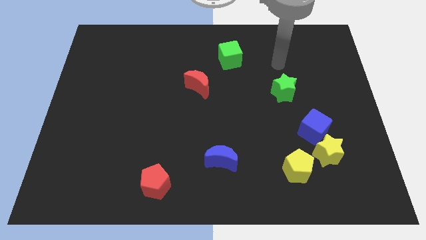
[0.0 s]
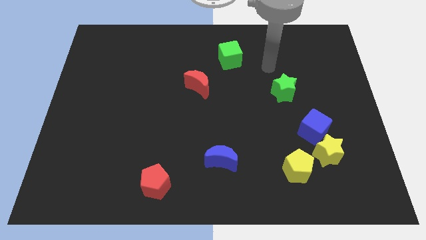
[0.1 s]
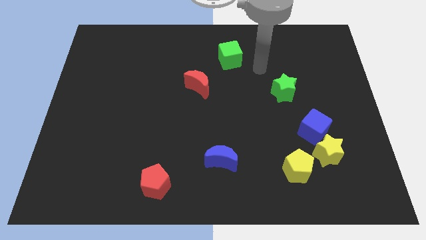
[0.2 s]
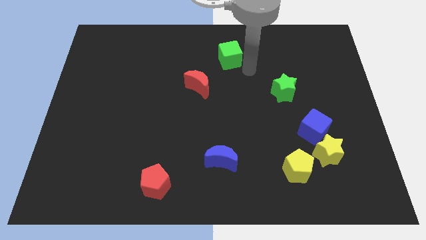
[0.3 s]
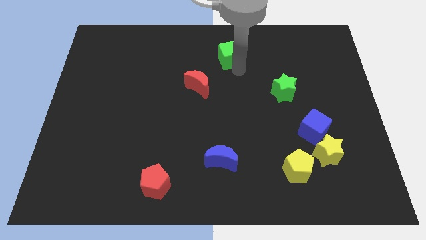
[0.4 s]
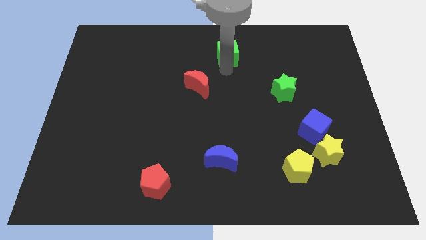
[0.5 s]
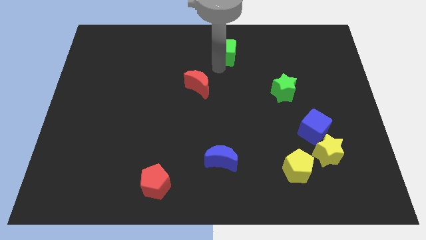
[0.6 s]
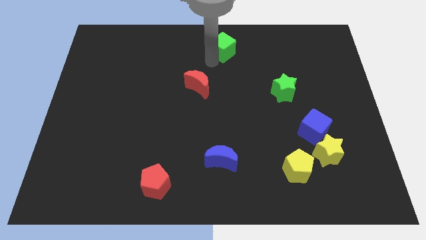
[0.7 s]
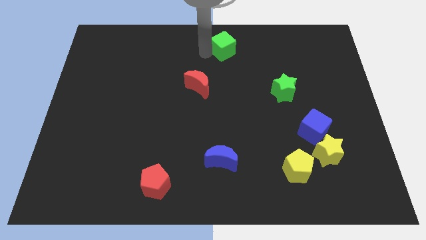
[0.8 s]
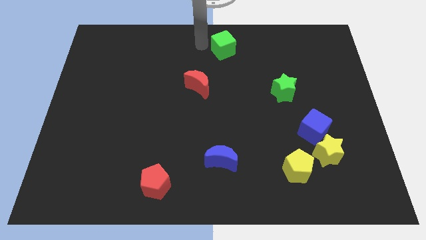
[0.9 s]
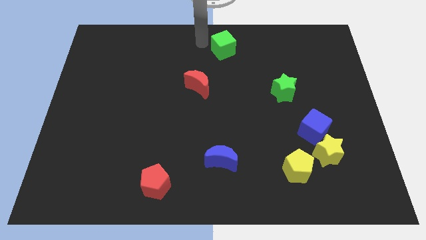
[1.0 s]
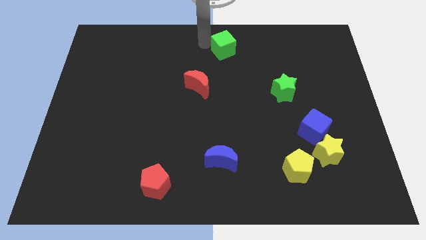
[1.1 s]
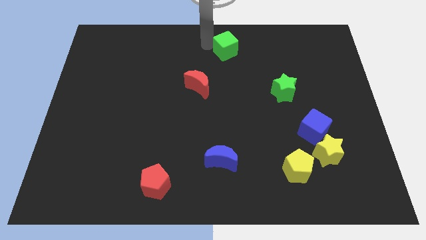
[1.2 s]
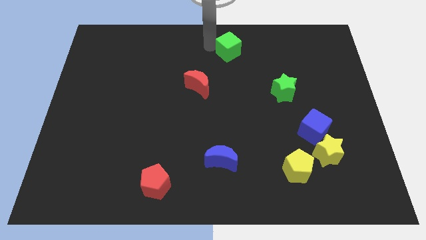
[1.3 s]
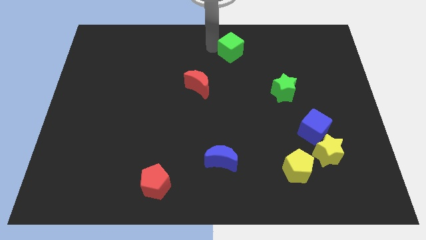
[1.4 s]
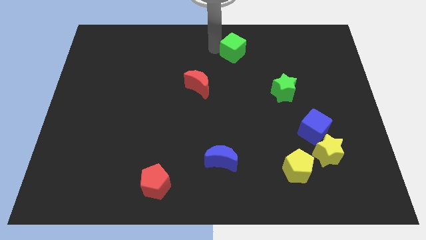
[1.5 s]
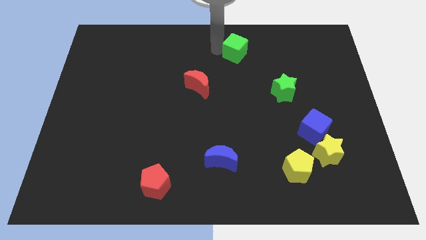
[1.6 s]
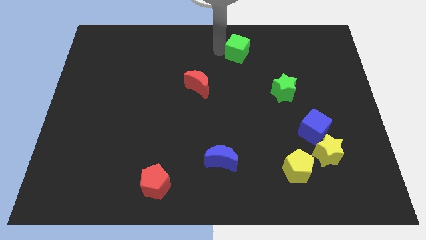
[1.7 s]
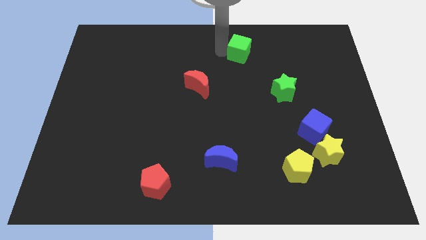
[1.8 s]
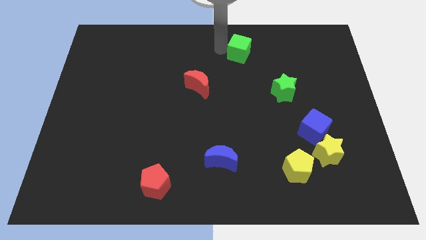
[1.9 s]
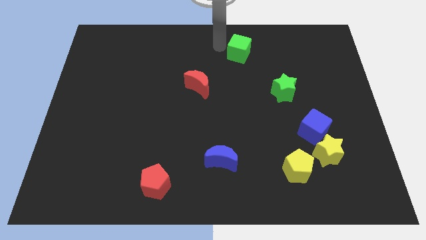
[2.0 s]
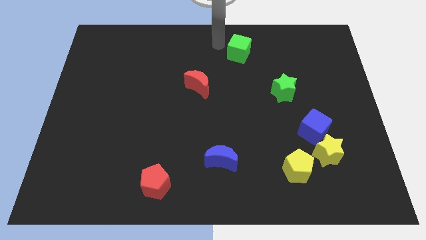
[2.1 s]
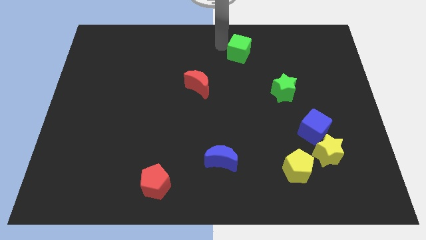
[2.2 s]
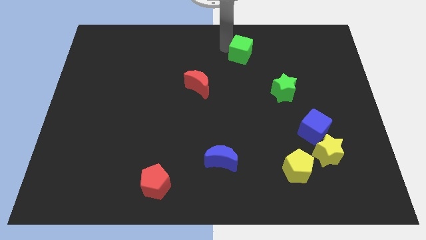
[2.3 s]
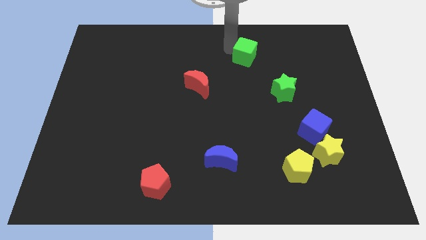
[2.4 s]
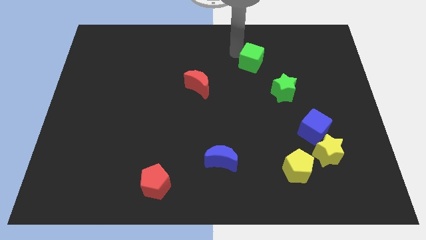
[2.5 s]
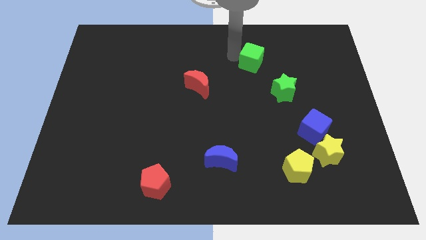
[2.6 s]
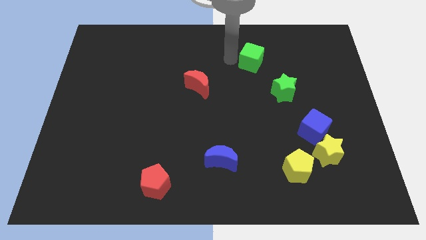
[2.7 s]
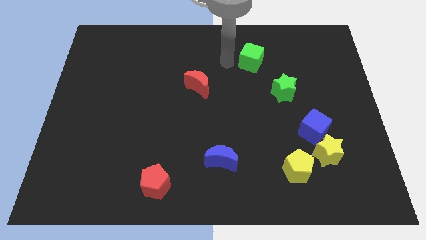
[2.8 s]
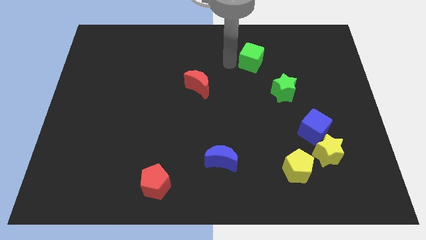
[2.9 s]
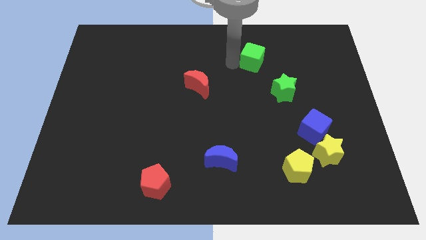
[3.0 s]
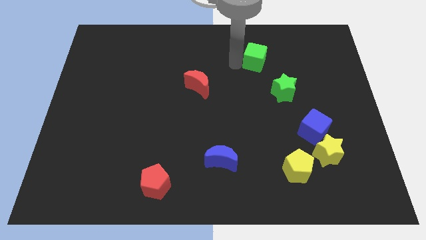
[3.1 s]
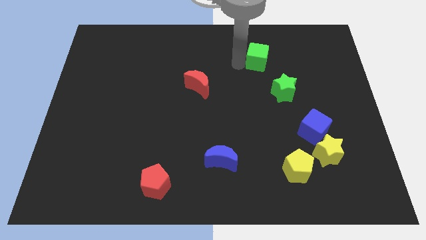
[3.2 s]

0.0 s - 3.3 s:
move the green cube a bit right

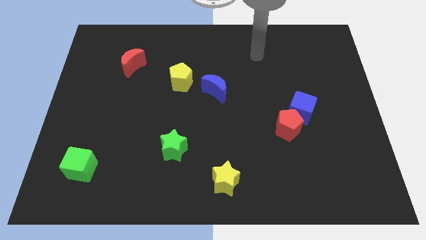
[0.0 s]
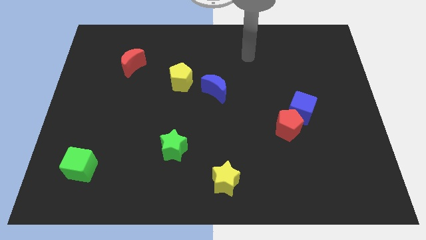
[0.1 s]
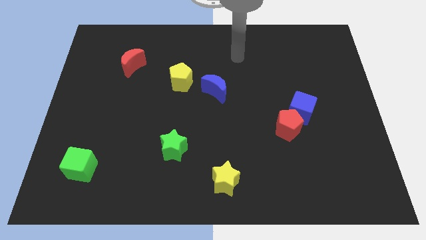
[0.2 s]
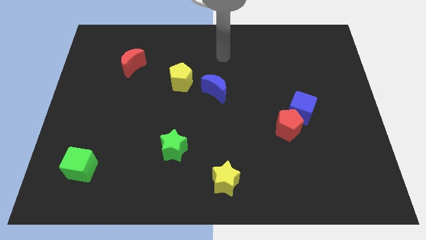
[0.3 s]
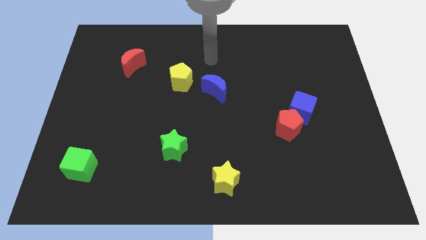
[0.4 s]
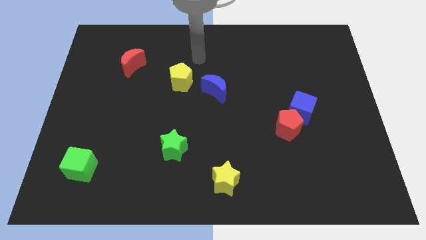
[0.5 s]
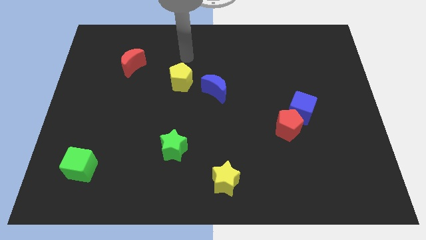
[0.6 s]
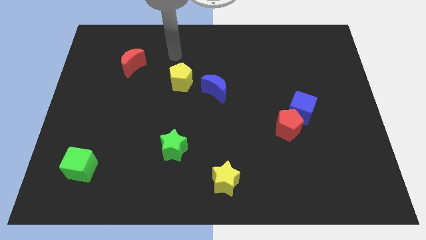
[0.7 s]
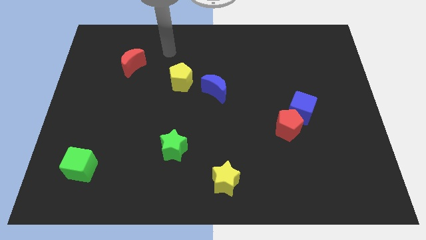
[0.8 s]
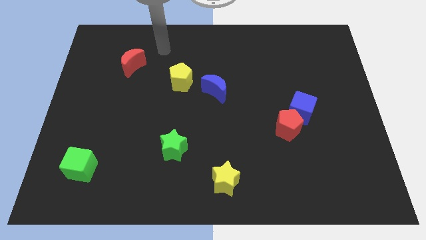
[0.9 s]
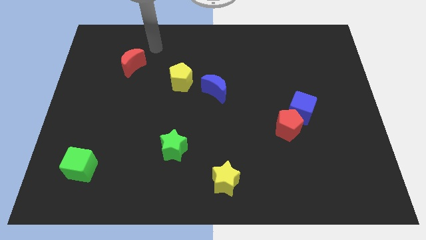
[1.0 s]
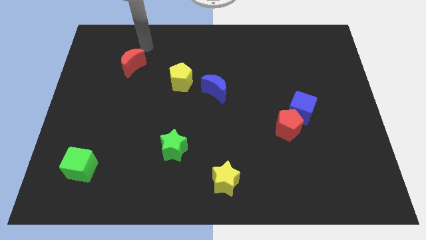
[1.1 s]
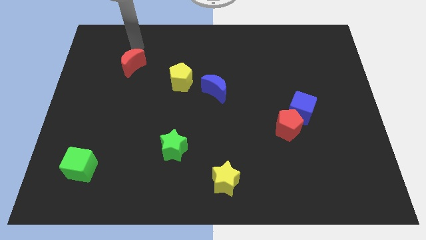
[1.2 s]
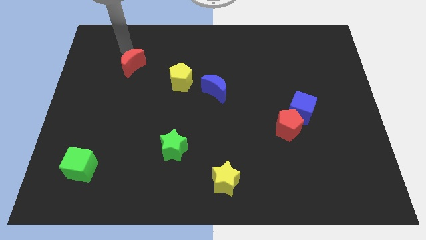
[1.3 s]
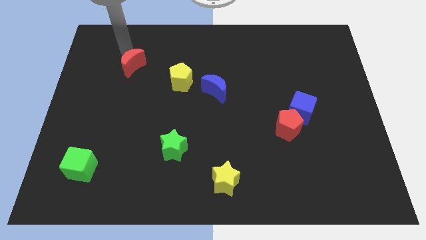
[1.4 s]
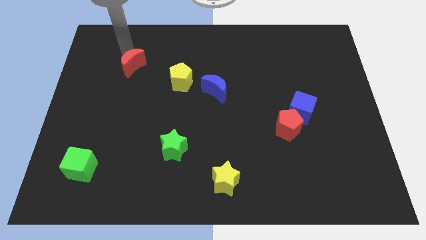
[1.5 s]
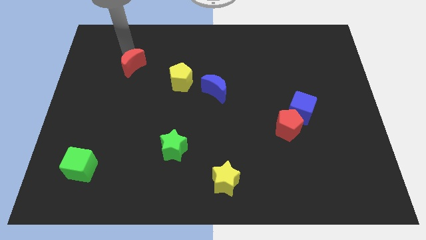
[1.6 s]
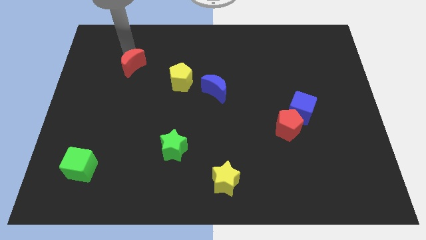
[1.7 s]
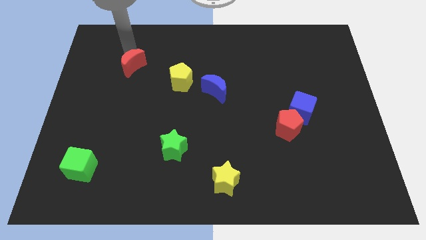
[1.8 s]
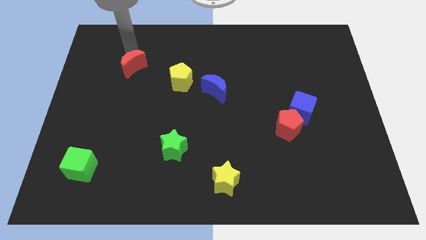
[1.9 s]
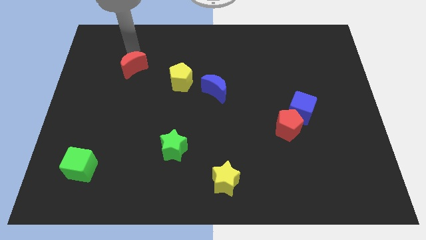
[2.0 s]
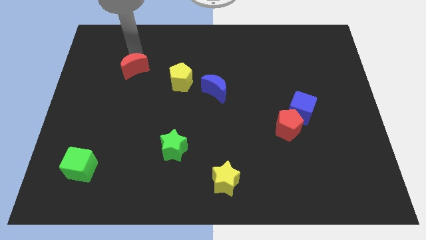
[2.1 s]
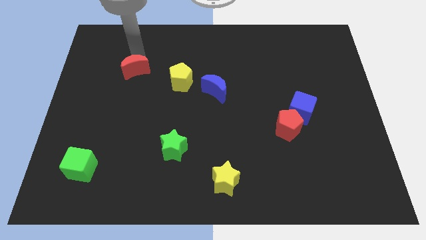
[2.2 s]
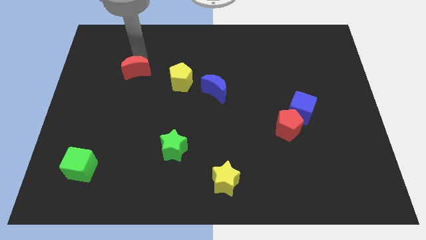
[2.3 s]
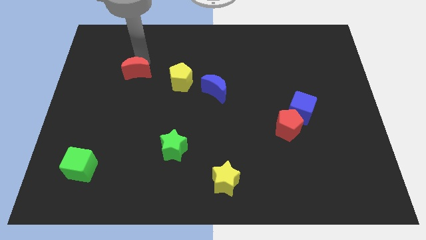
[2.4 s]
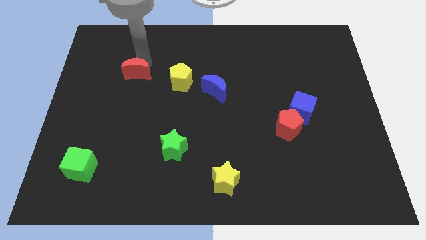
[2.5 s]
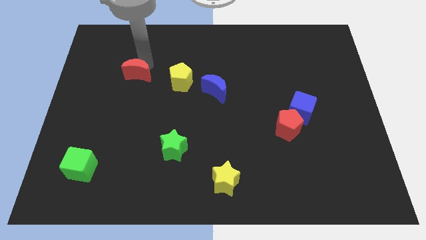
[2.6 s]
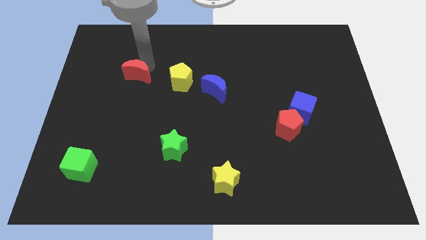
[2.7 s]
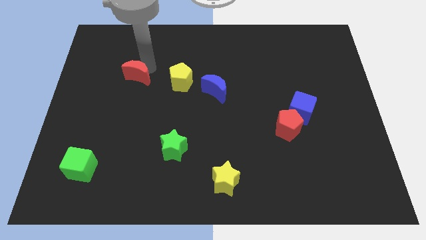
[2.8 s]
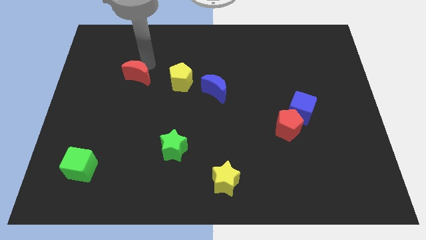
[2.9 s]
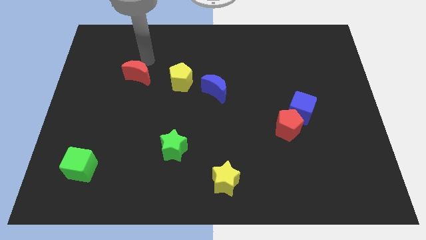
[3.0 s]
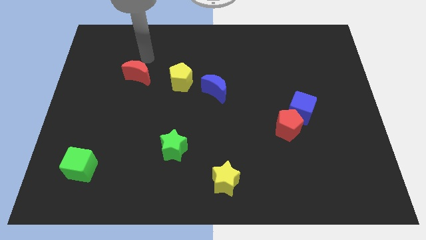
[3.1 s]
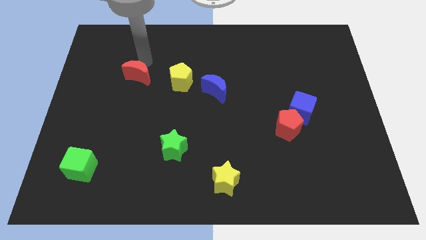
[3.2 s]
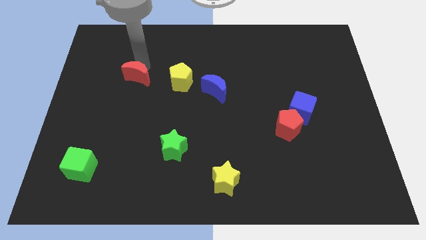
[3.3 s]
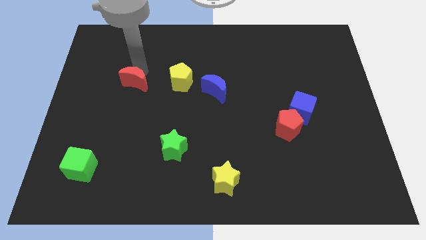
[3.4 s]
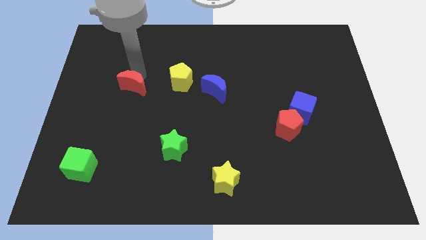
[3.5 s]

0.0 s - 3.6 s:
move the red moon slightly downwards

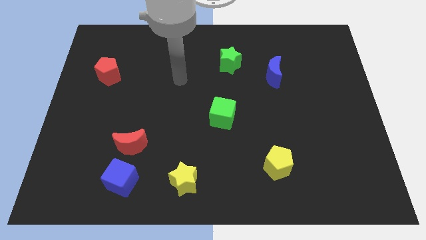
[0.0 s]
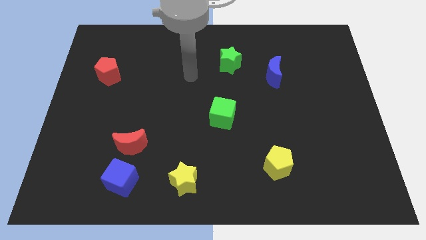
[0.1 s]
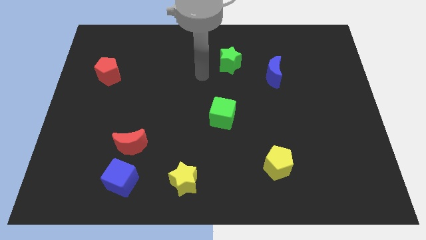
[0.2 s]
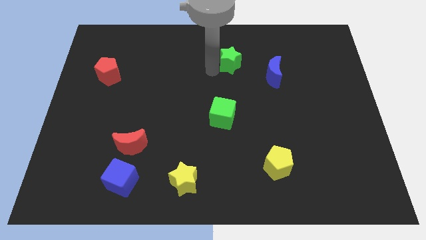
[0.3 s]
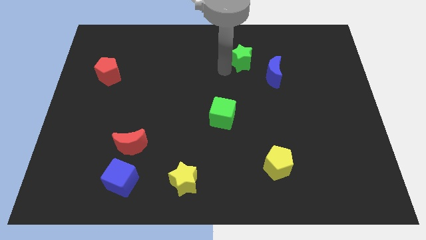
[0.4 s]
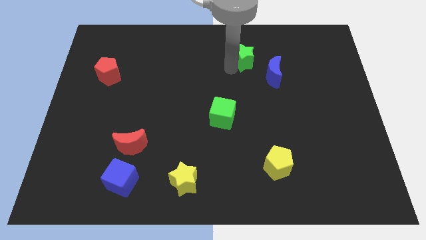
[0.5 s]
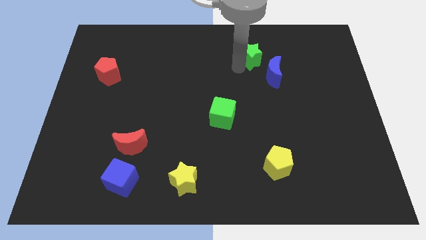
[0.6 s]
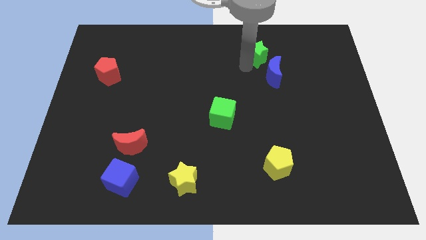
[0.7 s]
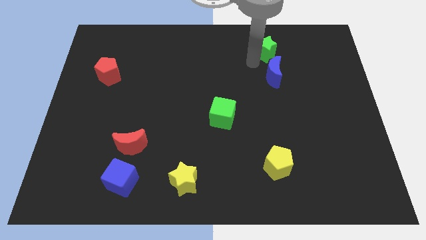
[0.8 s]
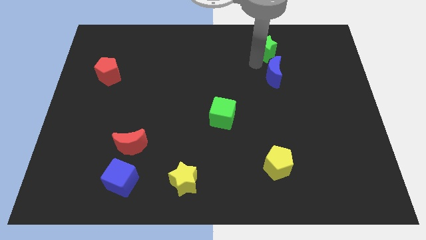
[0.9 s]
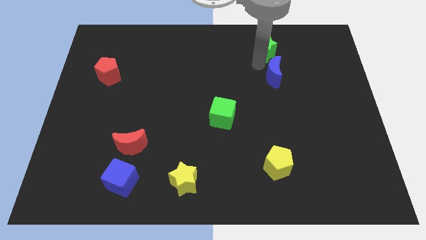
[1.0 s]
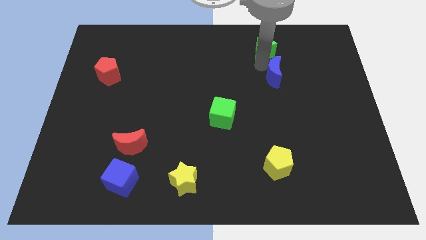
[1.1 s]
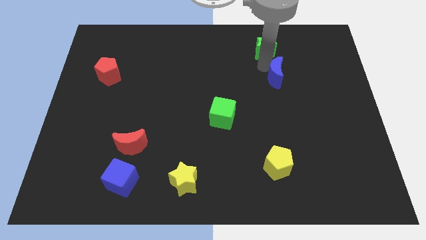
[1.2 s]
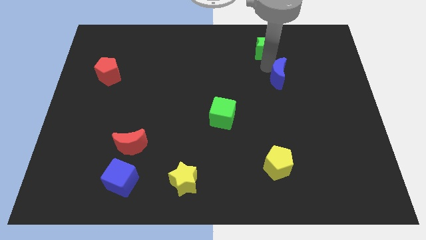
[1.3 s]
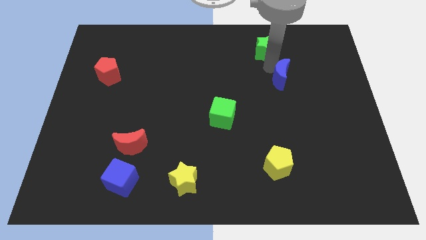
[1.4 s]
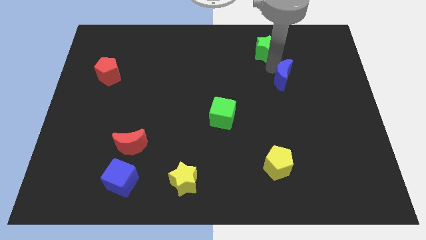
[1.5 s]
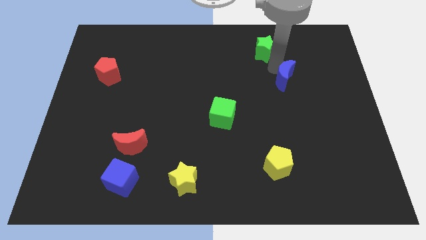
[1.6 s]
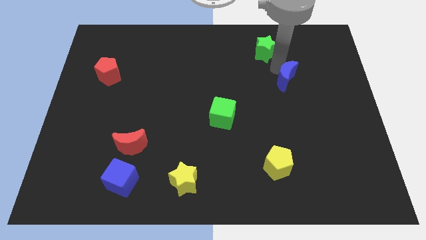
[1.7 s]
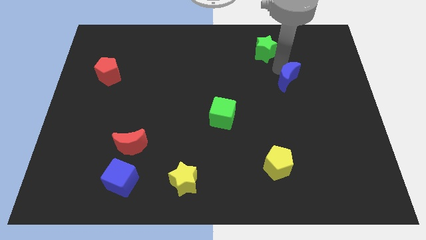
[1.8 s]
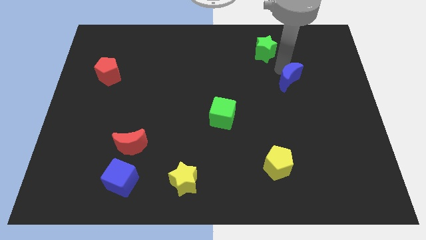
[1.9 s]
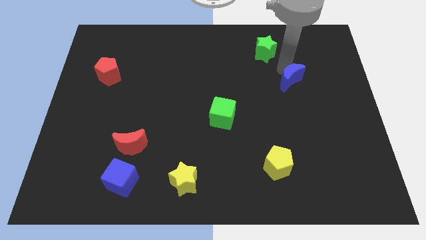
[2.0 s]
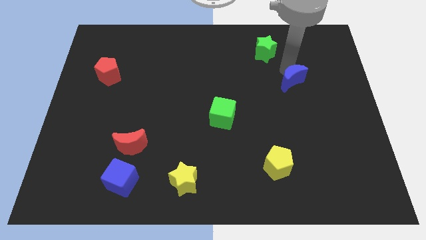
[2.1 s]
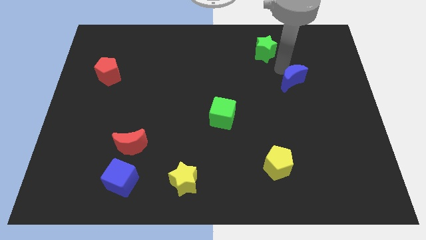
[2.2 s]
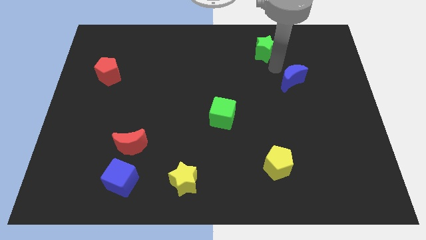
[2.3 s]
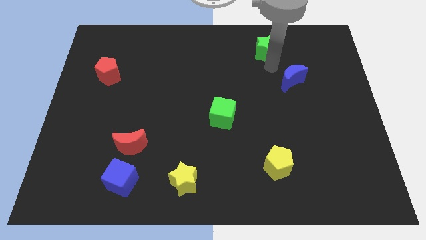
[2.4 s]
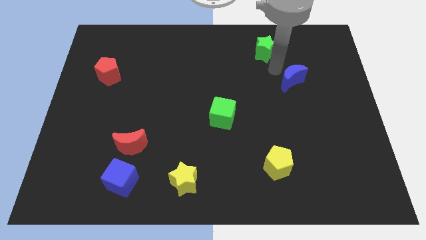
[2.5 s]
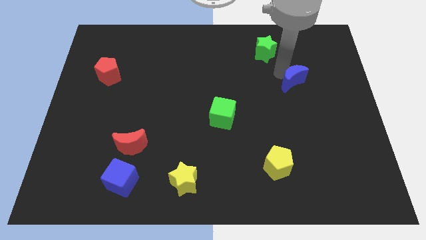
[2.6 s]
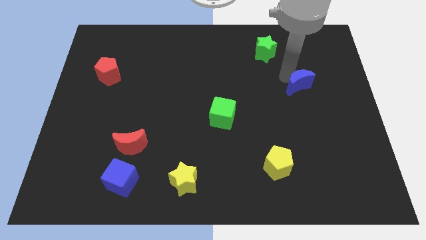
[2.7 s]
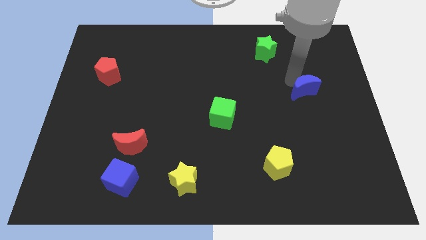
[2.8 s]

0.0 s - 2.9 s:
push the blue moon a little bit downwards and to the right diagonally
